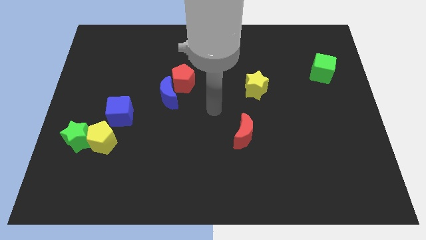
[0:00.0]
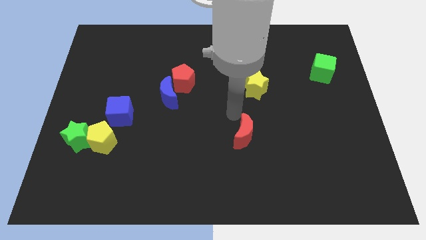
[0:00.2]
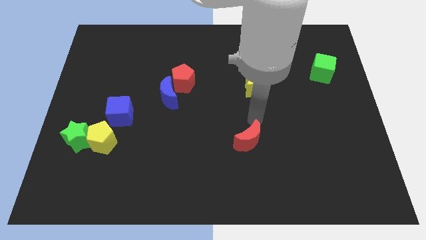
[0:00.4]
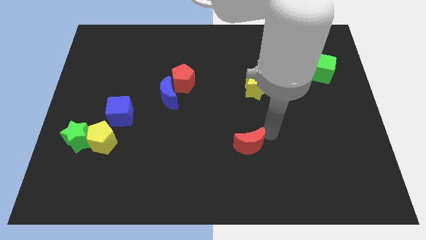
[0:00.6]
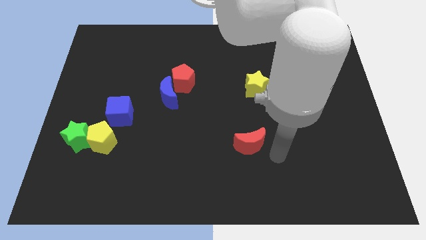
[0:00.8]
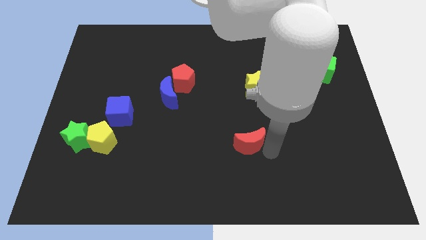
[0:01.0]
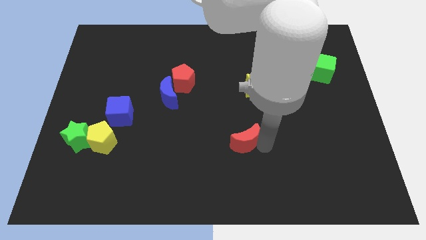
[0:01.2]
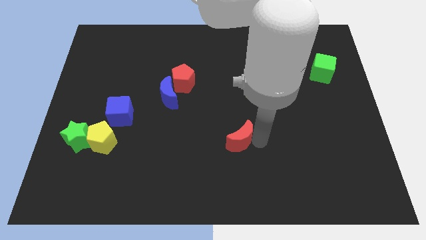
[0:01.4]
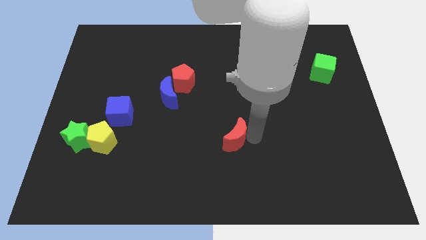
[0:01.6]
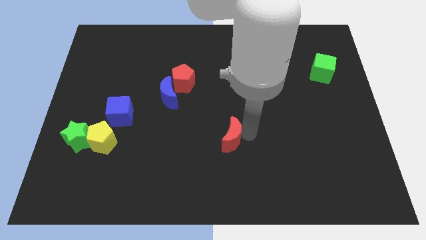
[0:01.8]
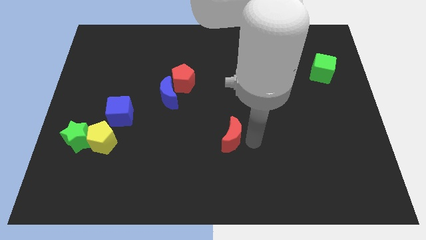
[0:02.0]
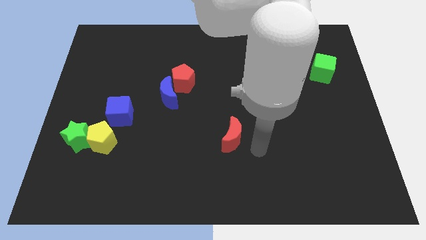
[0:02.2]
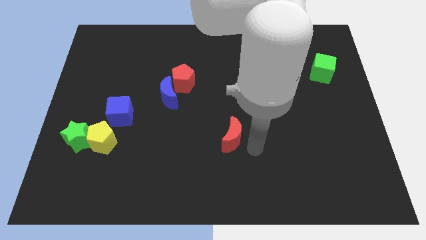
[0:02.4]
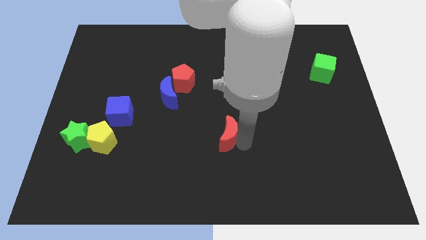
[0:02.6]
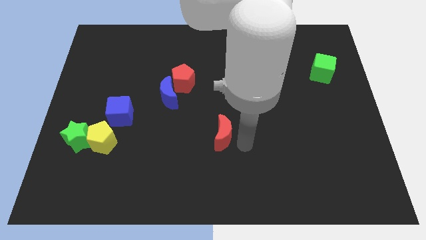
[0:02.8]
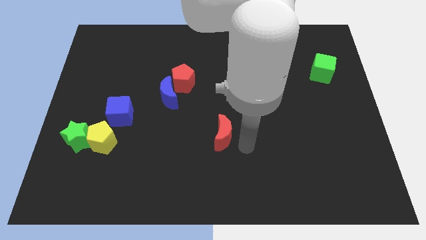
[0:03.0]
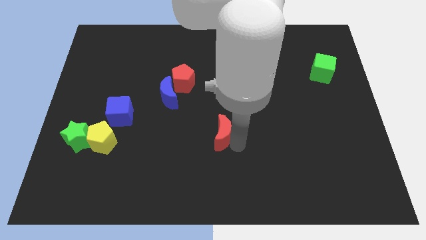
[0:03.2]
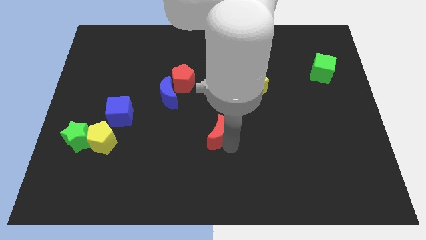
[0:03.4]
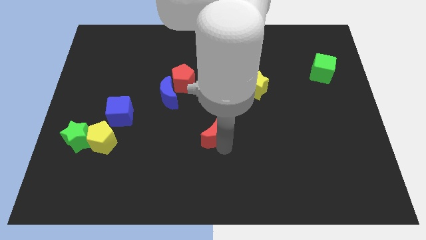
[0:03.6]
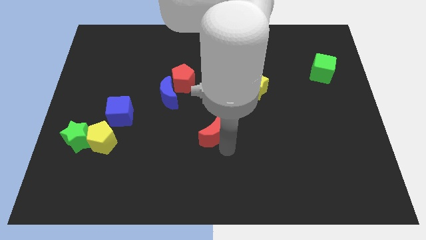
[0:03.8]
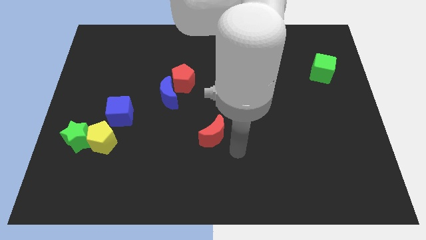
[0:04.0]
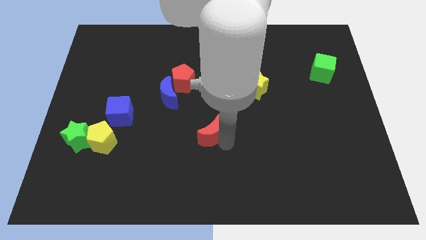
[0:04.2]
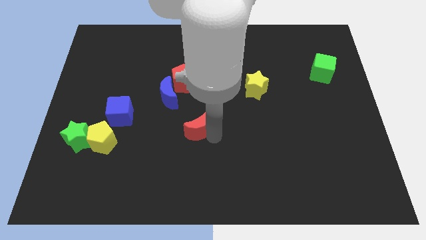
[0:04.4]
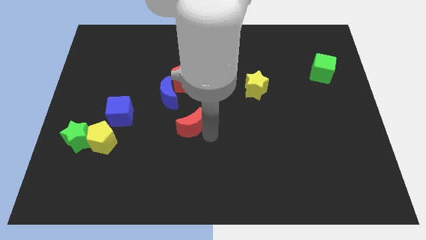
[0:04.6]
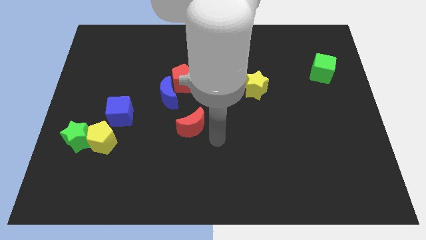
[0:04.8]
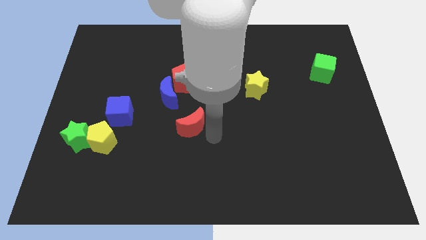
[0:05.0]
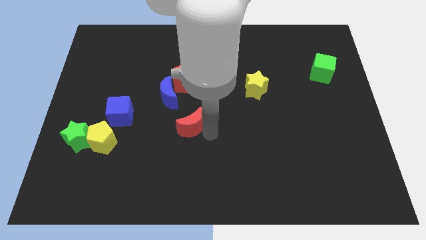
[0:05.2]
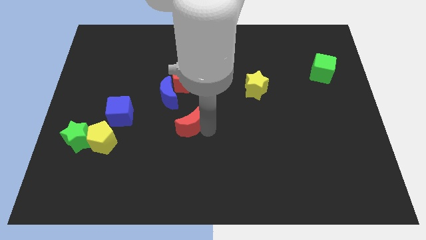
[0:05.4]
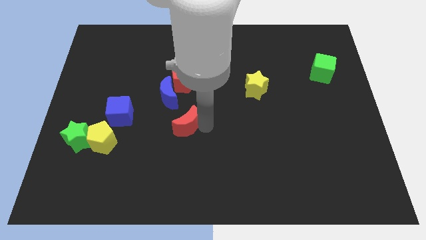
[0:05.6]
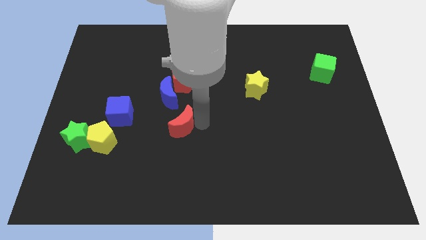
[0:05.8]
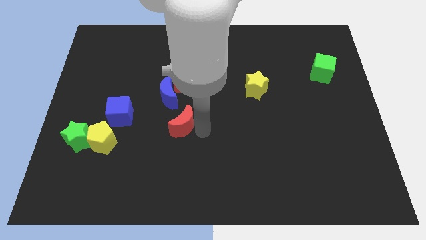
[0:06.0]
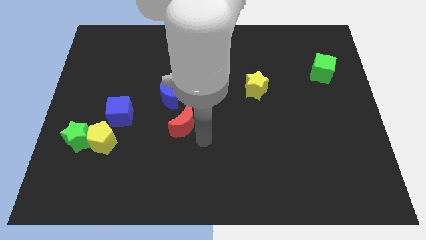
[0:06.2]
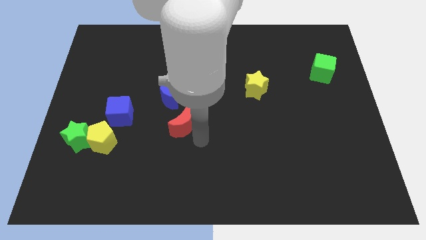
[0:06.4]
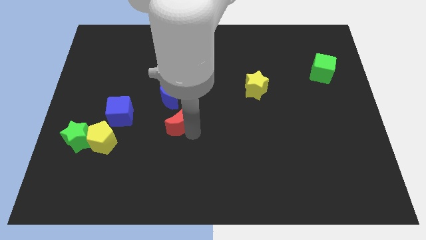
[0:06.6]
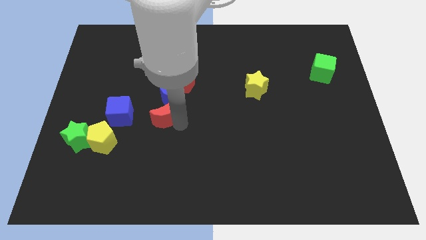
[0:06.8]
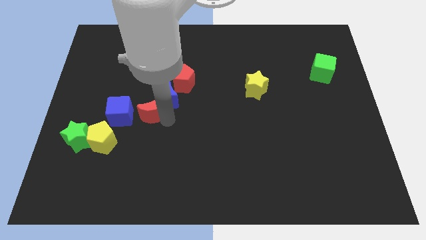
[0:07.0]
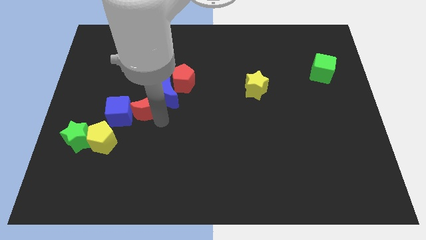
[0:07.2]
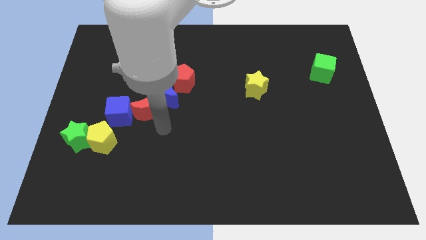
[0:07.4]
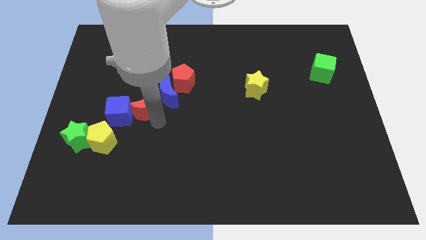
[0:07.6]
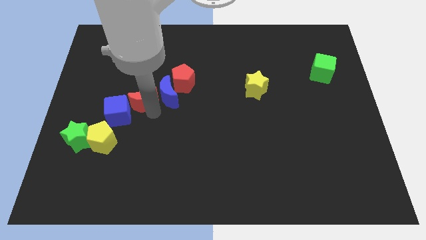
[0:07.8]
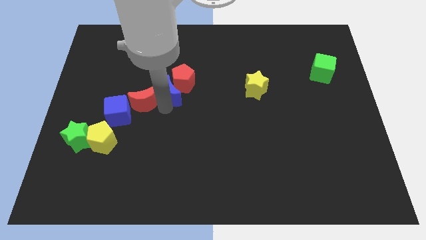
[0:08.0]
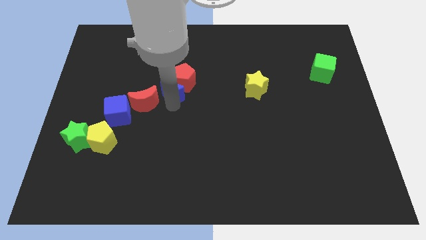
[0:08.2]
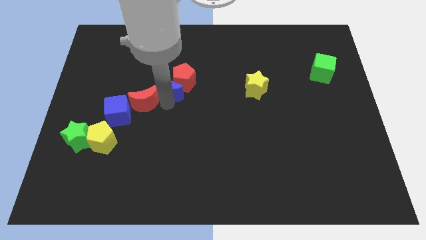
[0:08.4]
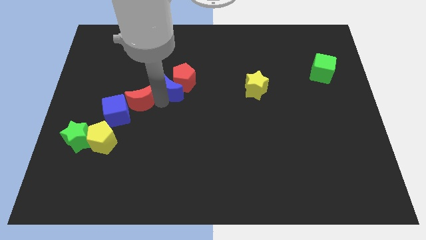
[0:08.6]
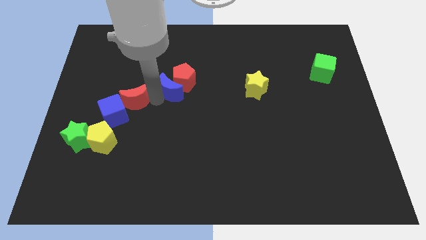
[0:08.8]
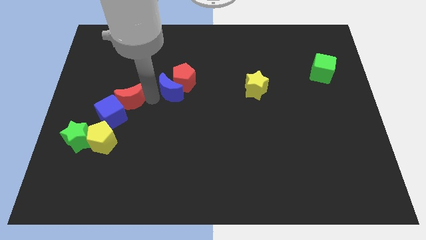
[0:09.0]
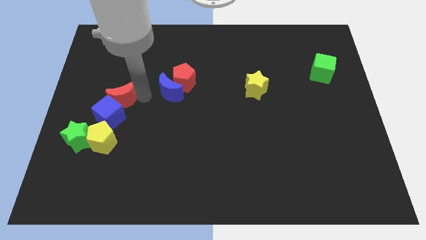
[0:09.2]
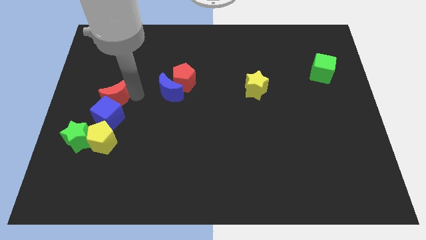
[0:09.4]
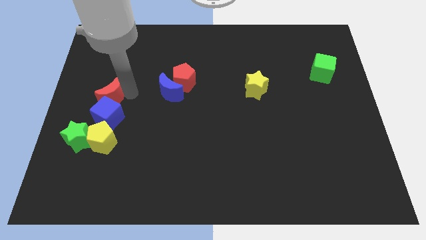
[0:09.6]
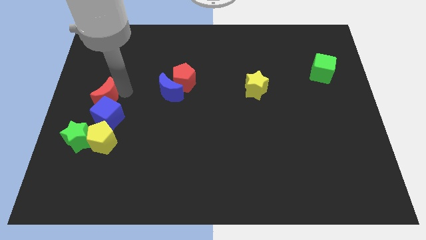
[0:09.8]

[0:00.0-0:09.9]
slide the red moon to the left side

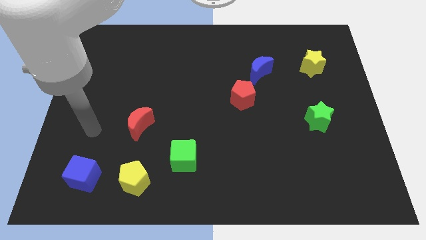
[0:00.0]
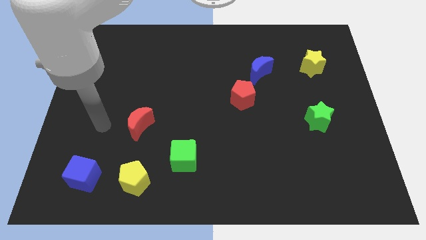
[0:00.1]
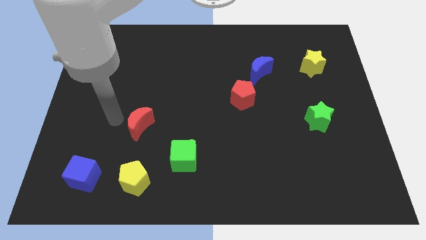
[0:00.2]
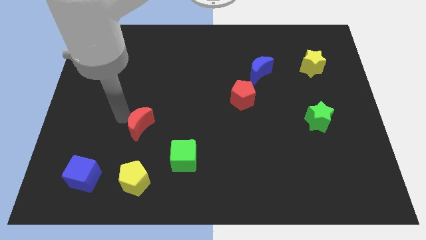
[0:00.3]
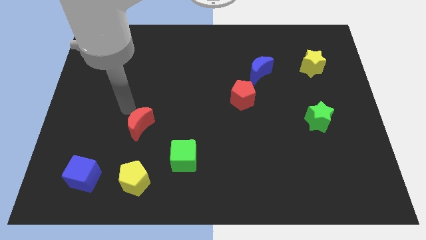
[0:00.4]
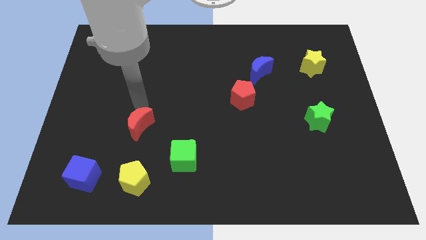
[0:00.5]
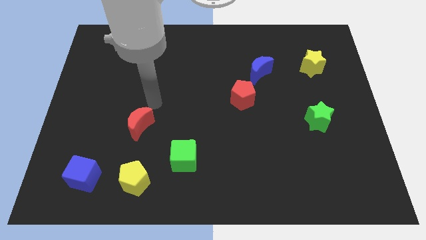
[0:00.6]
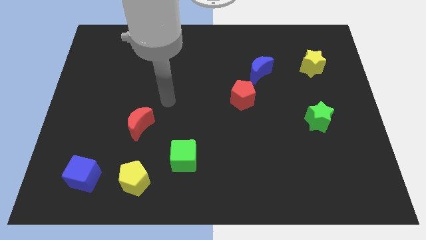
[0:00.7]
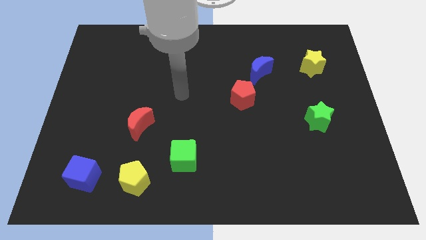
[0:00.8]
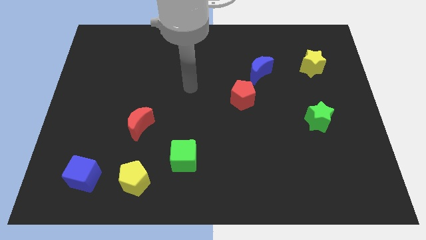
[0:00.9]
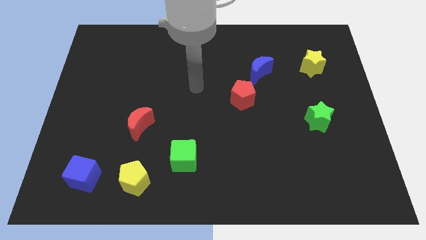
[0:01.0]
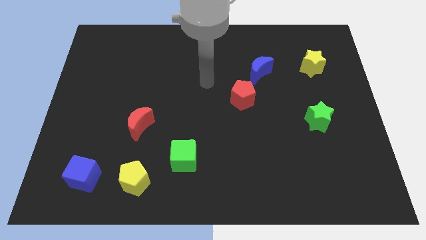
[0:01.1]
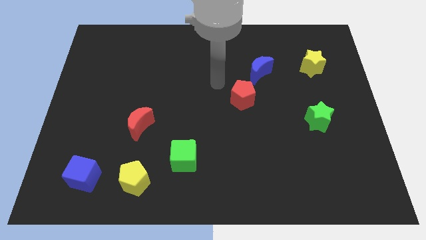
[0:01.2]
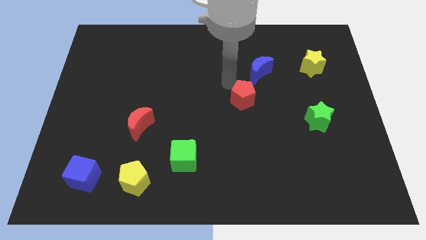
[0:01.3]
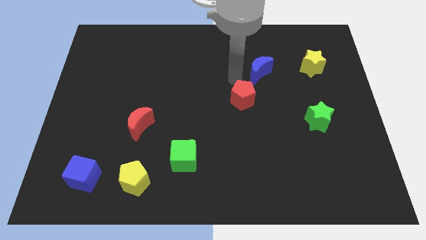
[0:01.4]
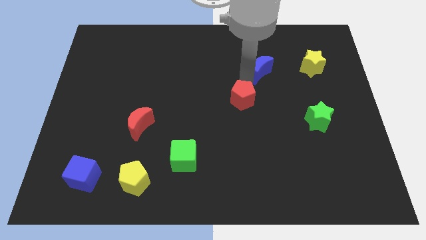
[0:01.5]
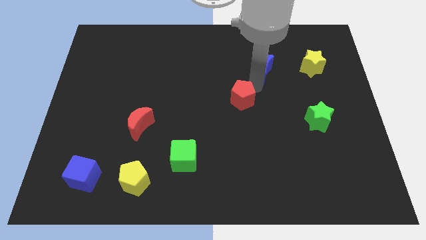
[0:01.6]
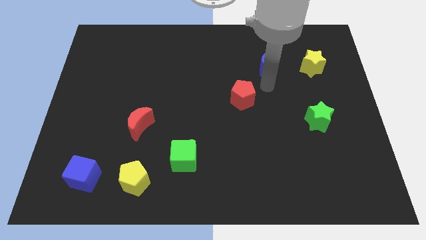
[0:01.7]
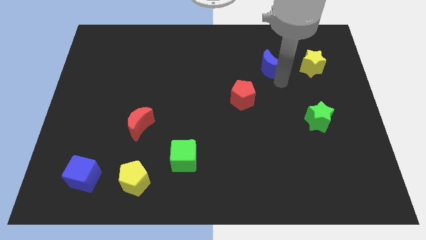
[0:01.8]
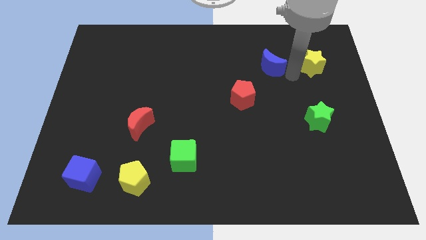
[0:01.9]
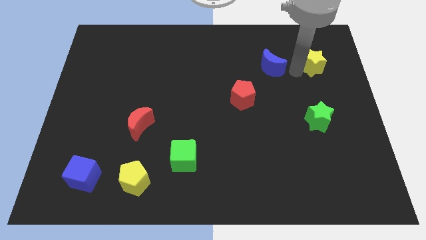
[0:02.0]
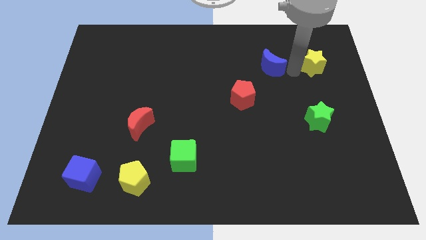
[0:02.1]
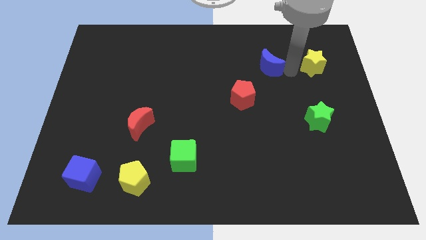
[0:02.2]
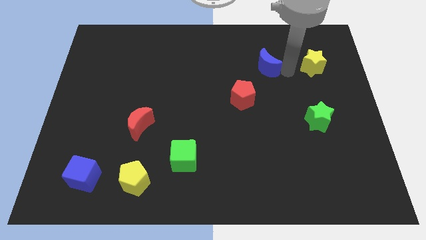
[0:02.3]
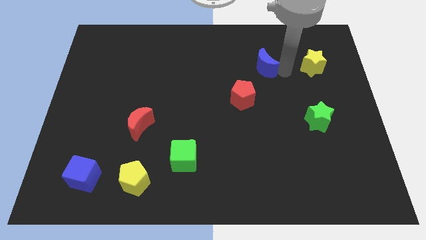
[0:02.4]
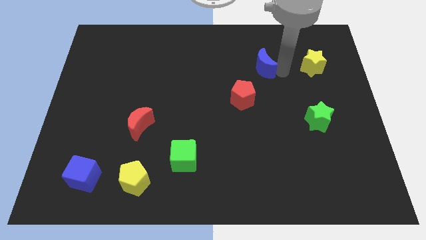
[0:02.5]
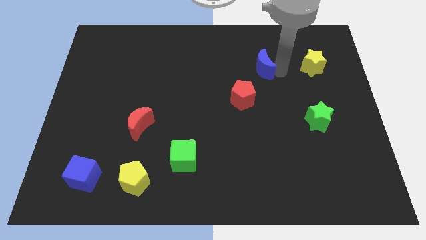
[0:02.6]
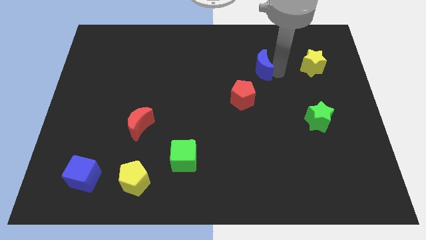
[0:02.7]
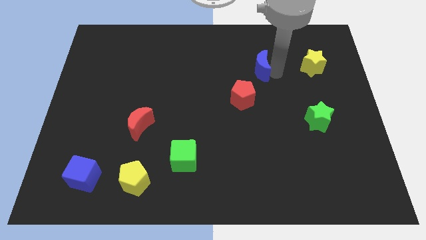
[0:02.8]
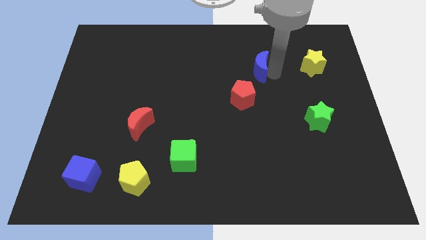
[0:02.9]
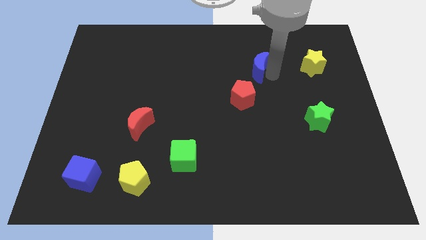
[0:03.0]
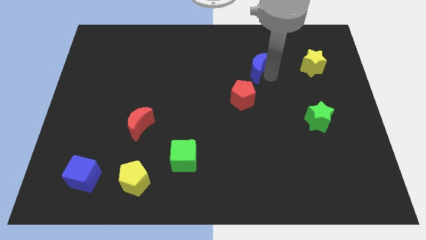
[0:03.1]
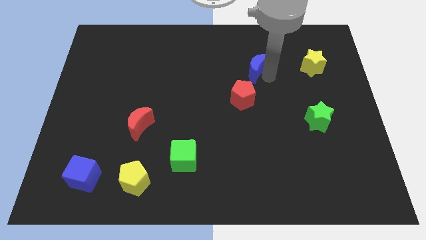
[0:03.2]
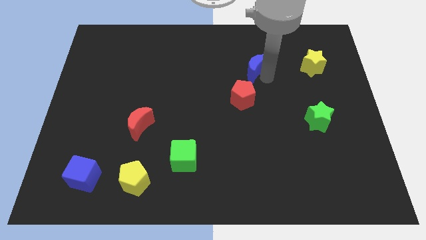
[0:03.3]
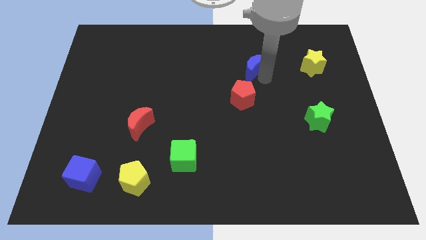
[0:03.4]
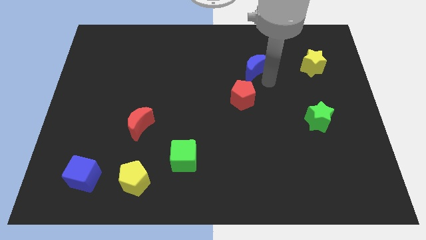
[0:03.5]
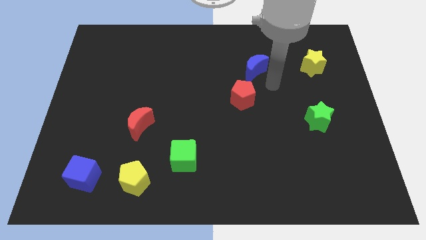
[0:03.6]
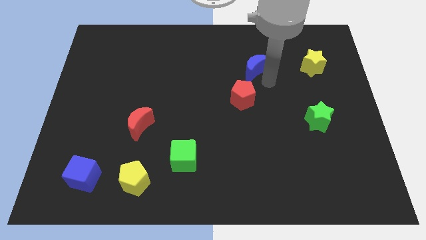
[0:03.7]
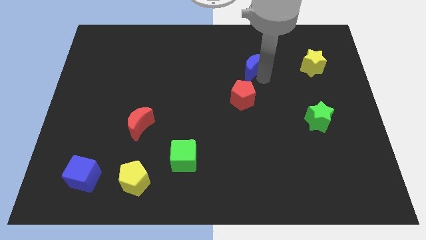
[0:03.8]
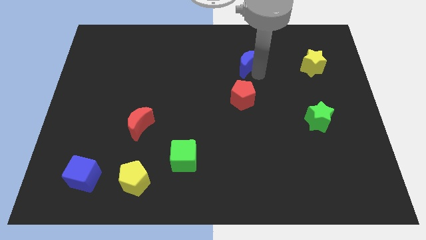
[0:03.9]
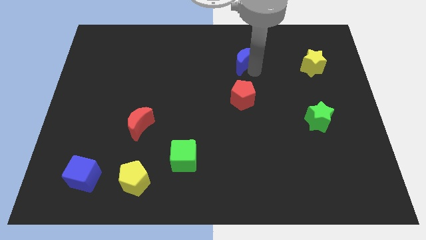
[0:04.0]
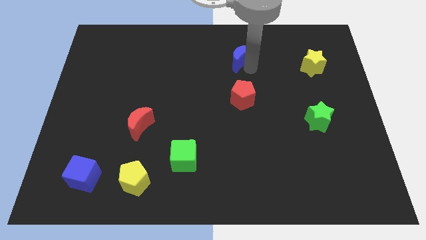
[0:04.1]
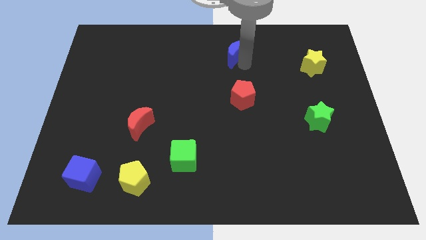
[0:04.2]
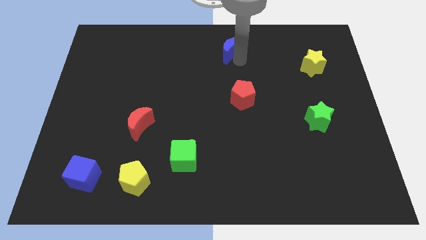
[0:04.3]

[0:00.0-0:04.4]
move the blue moon to the towards your base
